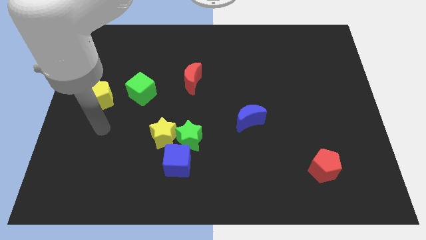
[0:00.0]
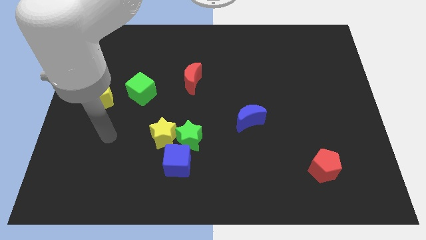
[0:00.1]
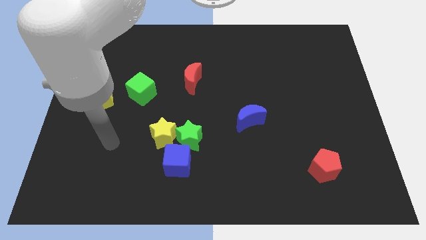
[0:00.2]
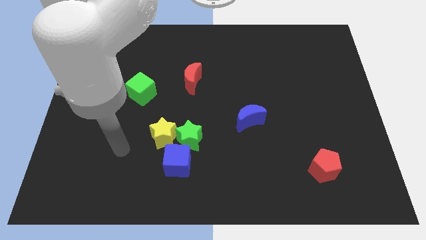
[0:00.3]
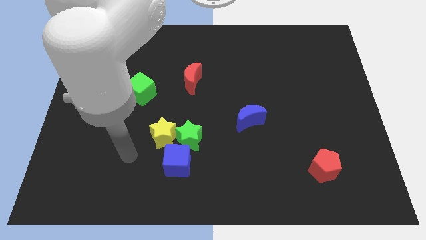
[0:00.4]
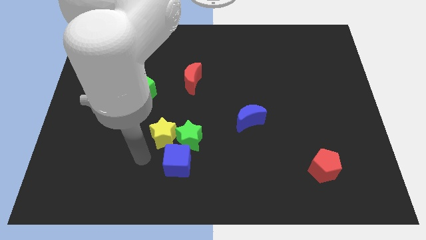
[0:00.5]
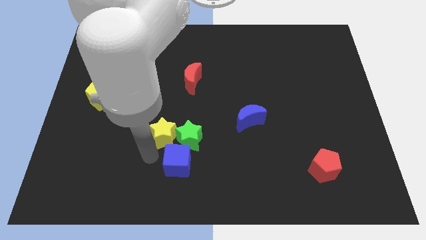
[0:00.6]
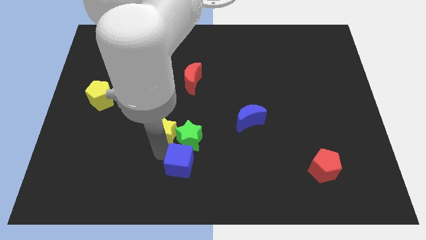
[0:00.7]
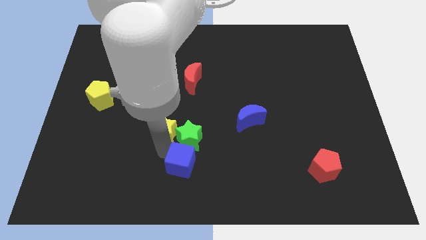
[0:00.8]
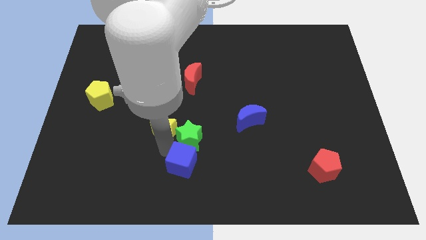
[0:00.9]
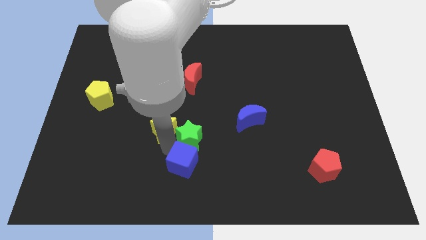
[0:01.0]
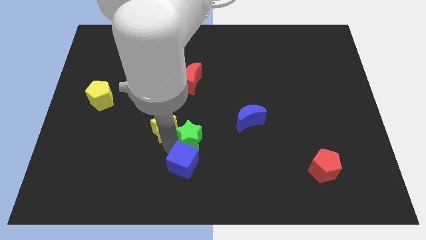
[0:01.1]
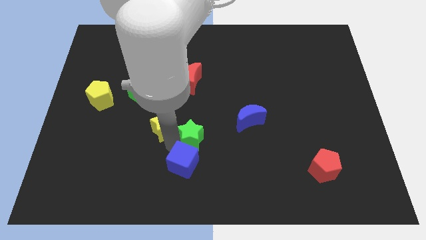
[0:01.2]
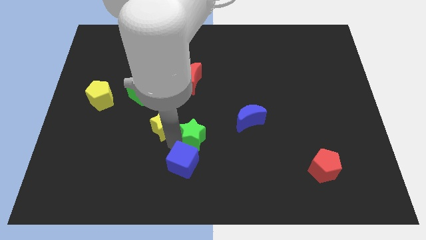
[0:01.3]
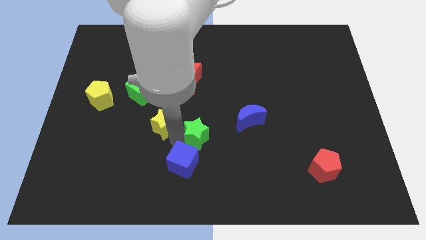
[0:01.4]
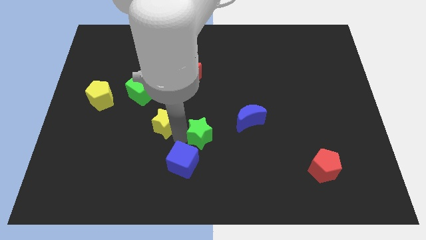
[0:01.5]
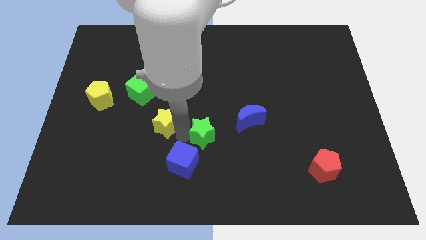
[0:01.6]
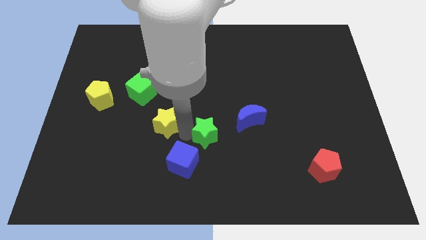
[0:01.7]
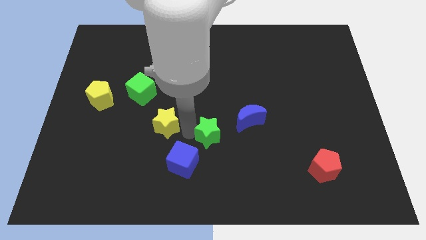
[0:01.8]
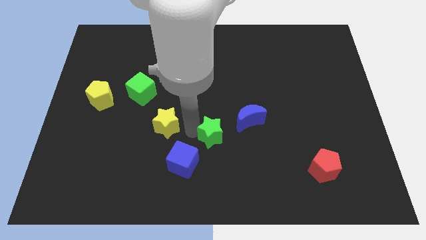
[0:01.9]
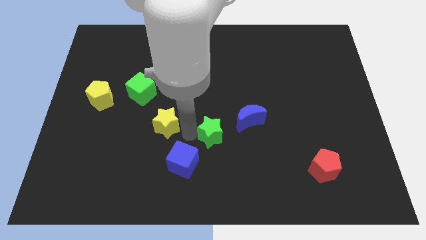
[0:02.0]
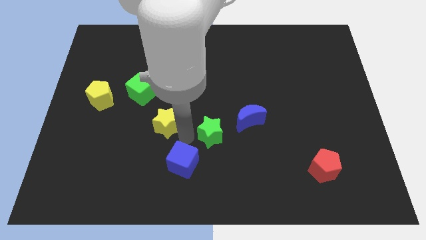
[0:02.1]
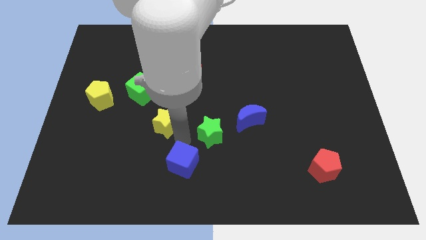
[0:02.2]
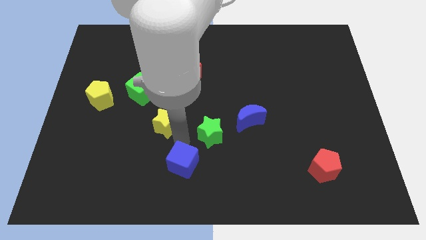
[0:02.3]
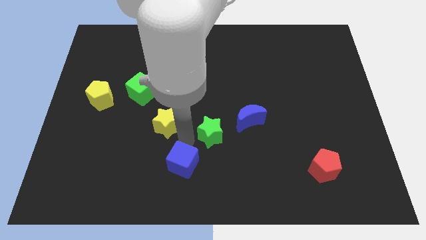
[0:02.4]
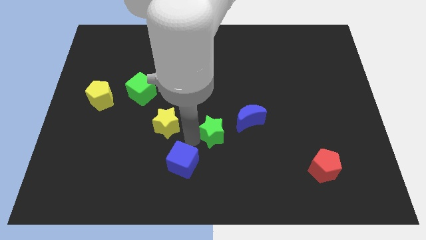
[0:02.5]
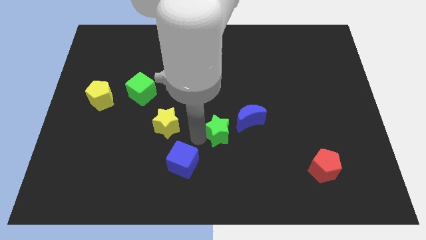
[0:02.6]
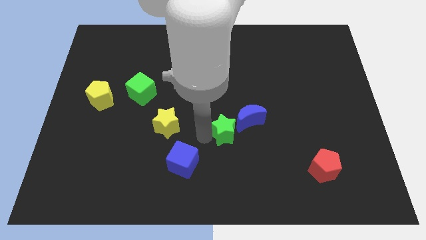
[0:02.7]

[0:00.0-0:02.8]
move the green star away from the yellow star and blue cube

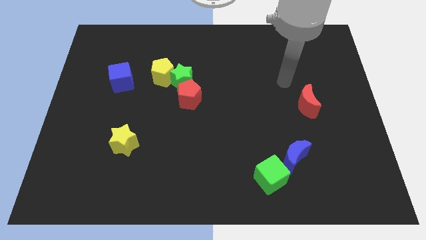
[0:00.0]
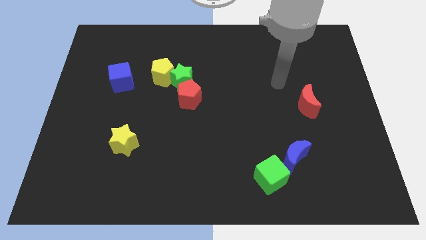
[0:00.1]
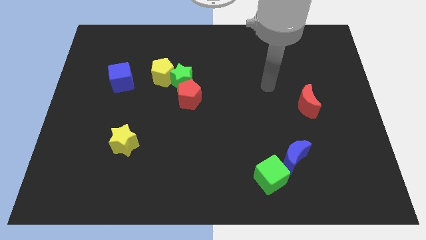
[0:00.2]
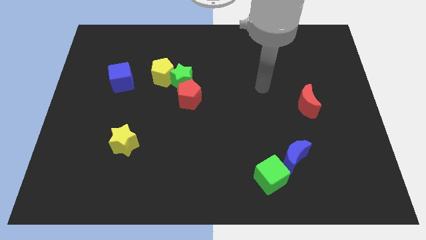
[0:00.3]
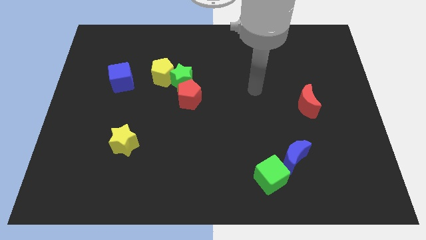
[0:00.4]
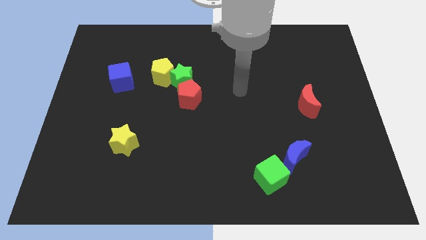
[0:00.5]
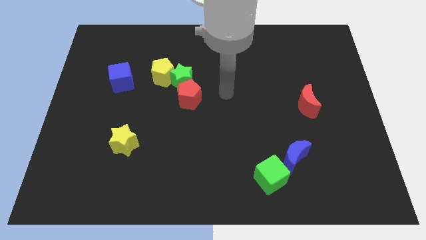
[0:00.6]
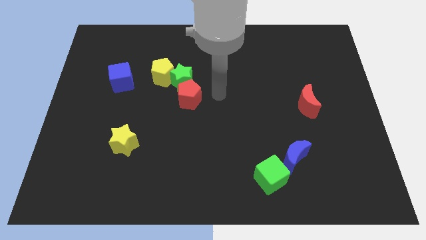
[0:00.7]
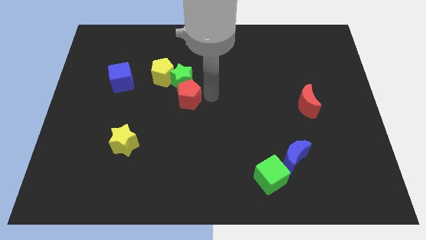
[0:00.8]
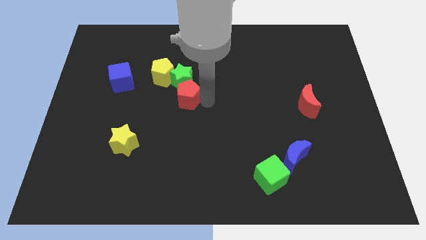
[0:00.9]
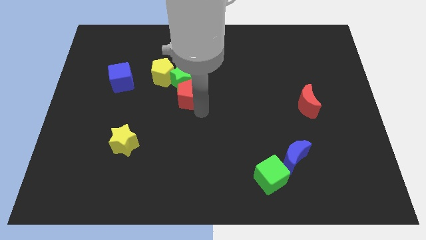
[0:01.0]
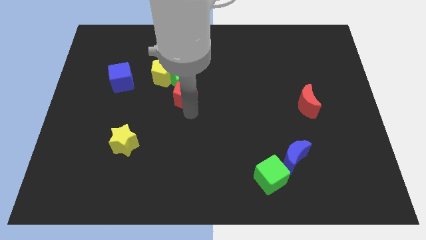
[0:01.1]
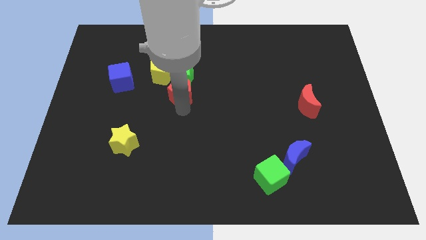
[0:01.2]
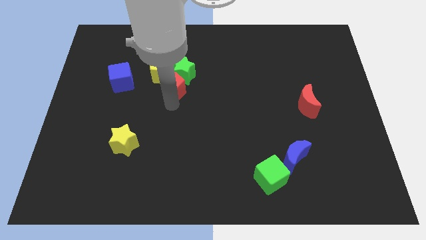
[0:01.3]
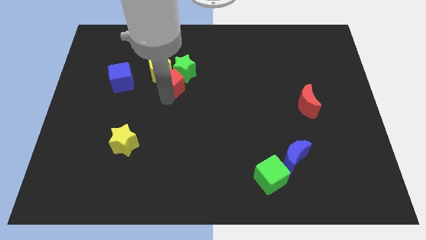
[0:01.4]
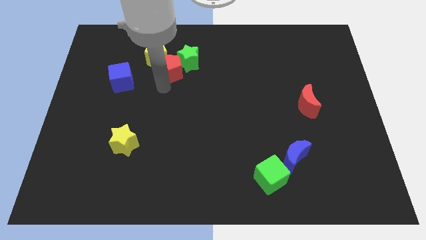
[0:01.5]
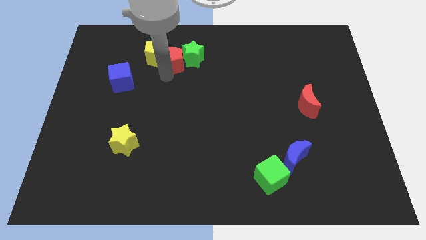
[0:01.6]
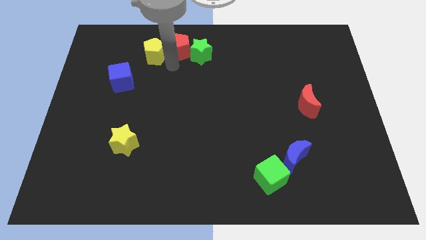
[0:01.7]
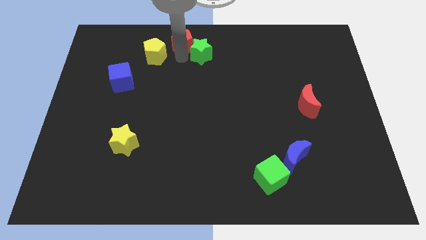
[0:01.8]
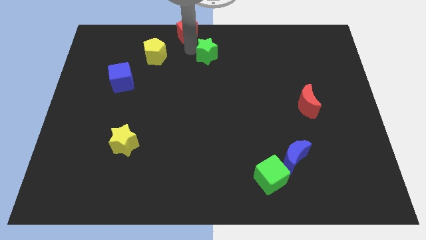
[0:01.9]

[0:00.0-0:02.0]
move the green star away from the yellow pentagon and red pentagon

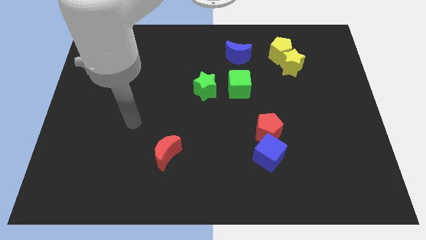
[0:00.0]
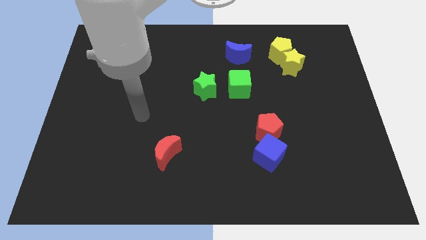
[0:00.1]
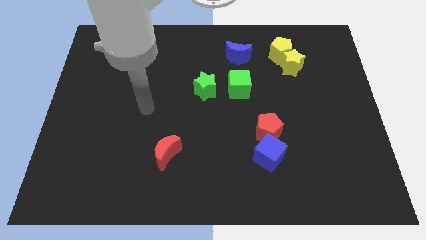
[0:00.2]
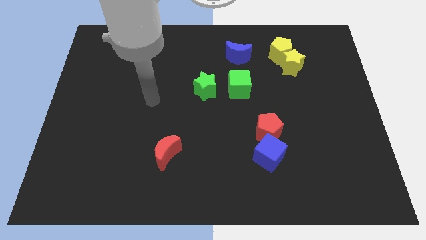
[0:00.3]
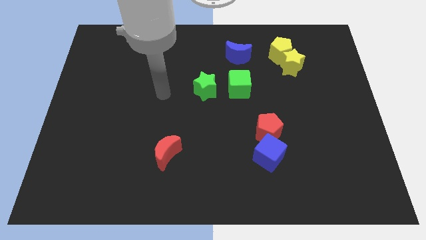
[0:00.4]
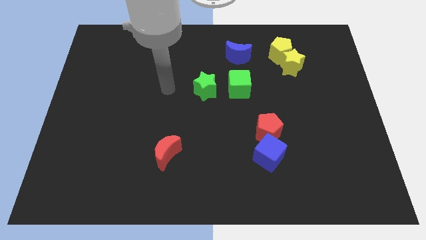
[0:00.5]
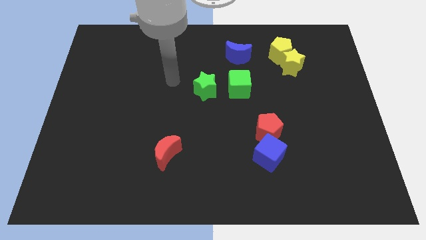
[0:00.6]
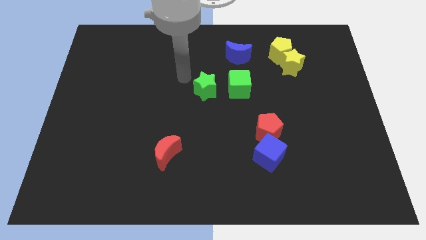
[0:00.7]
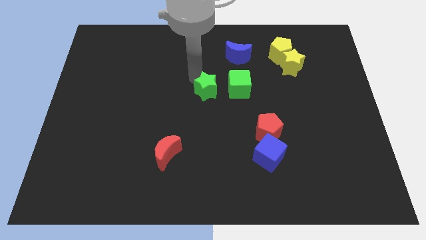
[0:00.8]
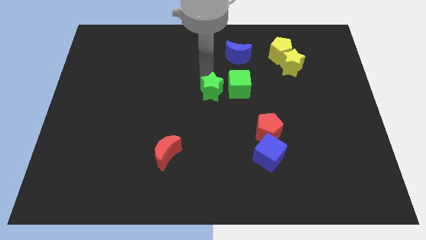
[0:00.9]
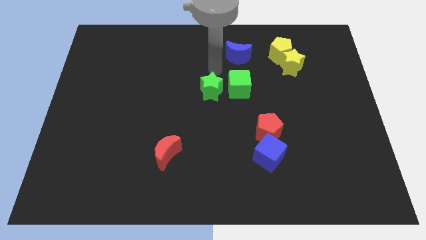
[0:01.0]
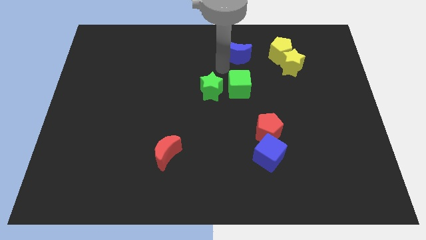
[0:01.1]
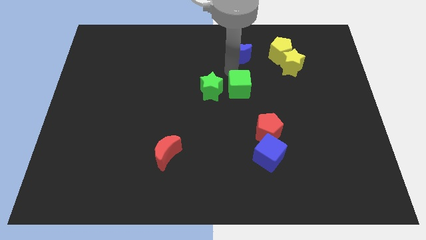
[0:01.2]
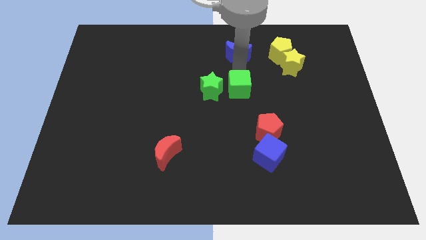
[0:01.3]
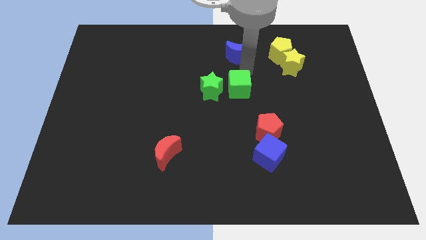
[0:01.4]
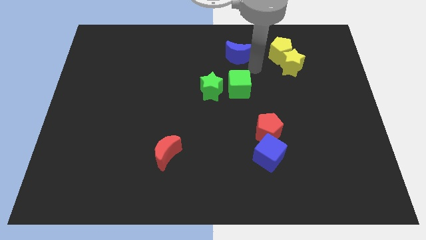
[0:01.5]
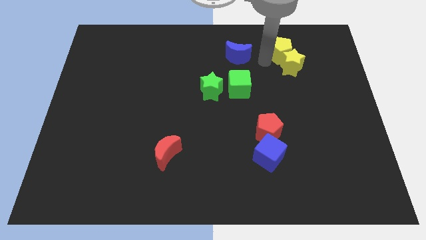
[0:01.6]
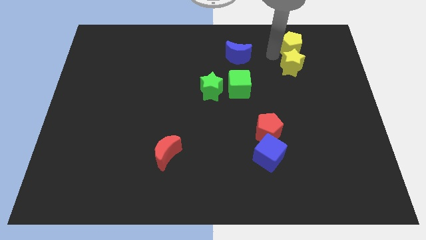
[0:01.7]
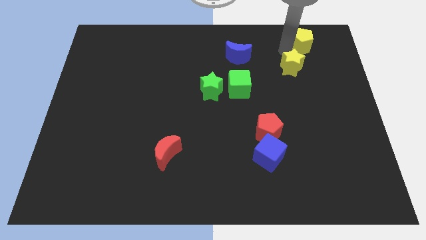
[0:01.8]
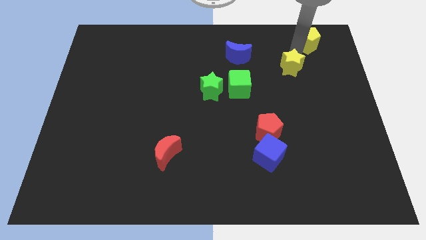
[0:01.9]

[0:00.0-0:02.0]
separate the yellow star from the yellow pentagon

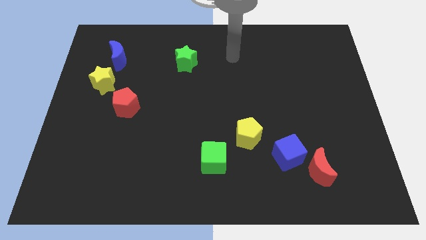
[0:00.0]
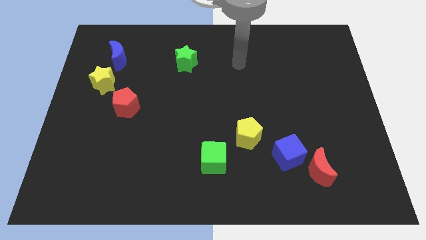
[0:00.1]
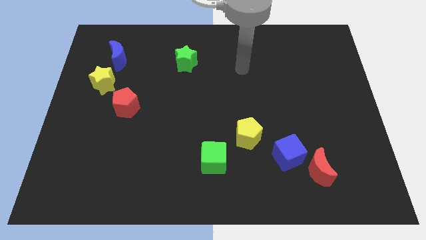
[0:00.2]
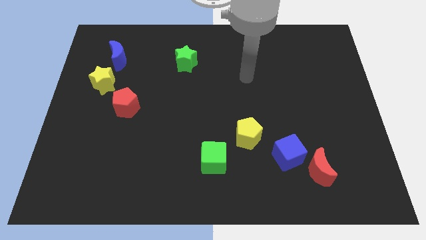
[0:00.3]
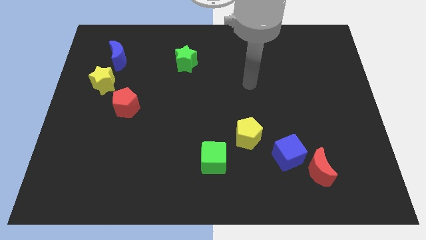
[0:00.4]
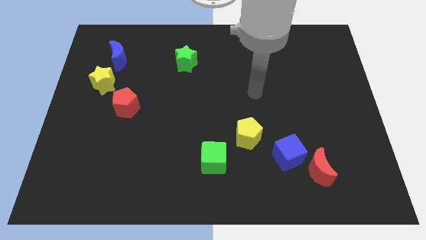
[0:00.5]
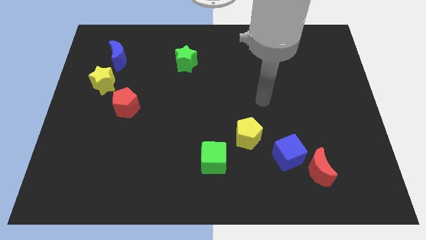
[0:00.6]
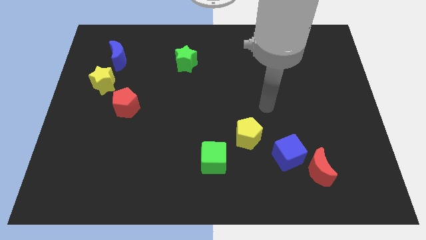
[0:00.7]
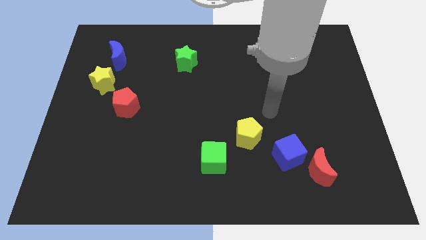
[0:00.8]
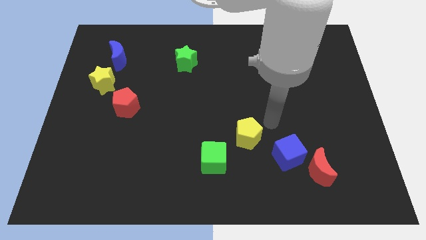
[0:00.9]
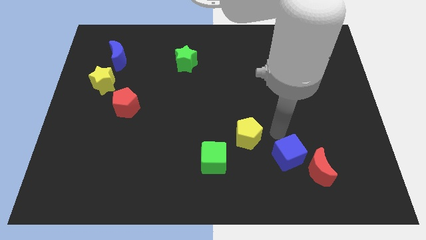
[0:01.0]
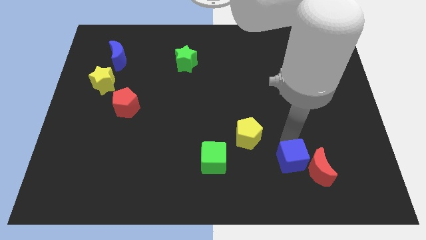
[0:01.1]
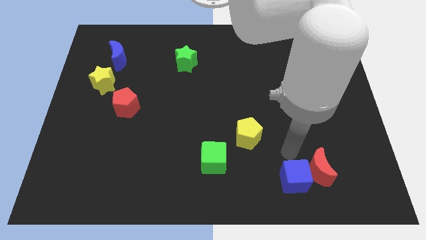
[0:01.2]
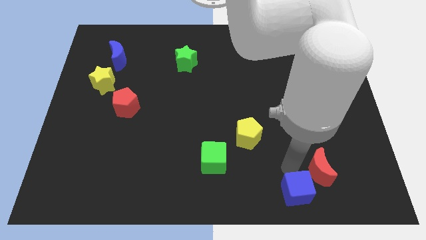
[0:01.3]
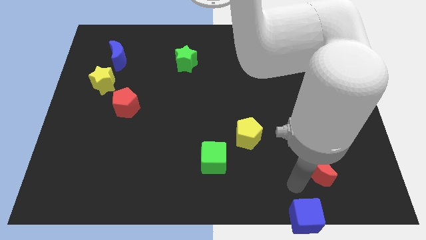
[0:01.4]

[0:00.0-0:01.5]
pull the red moon apart from the blue cube

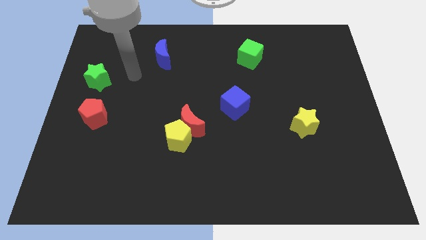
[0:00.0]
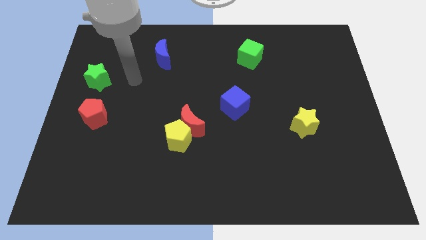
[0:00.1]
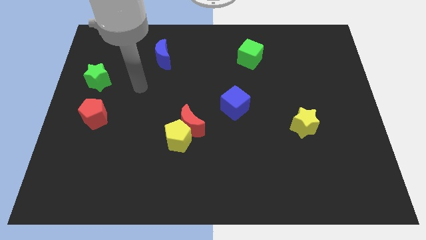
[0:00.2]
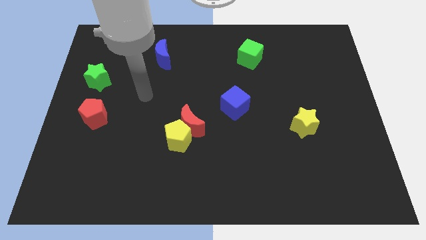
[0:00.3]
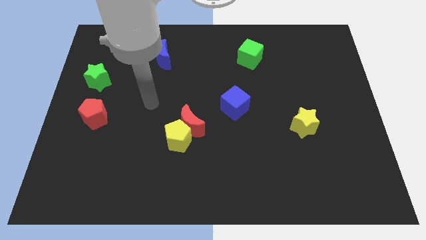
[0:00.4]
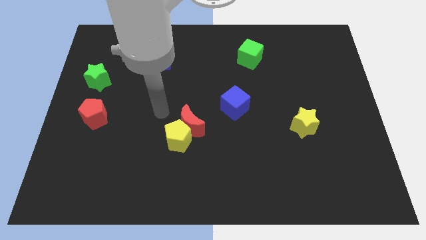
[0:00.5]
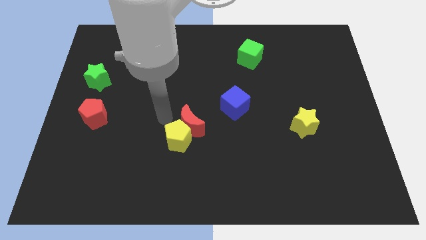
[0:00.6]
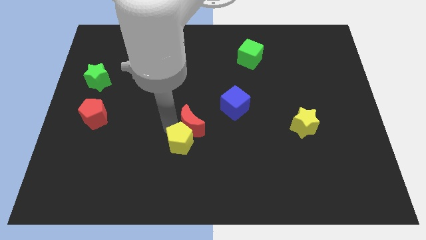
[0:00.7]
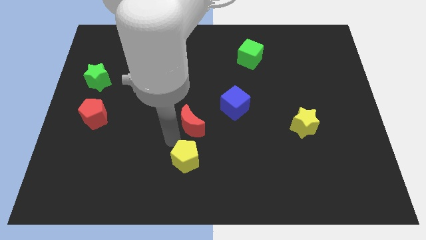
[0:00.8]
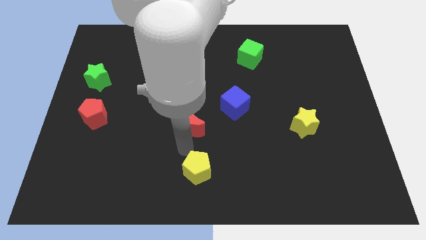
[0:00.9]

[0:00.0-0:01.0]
separate the red moon from the yellow pentagon
